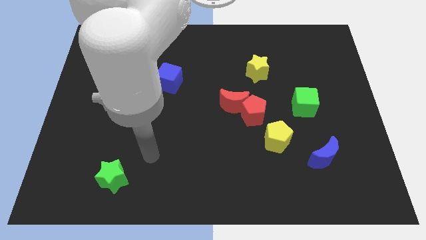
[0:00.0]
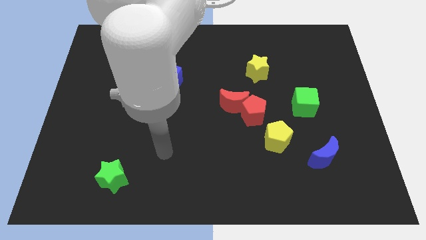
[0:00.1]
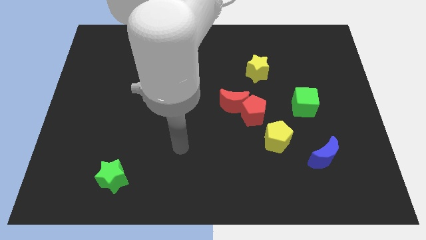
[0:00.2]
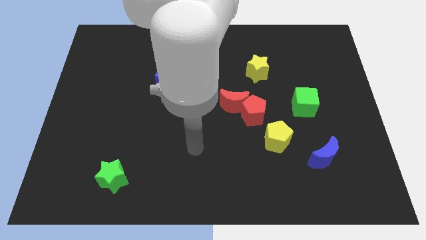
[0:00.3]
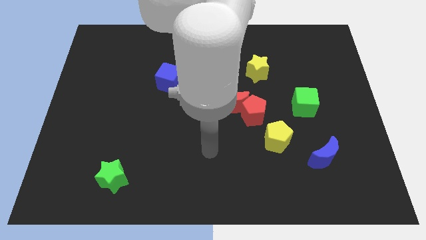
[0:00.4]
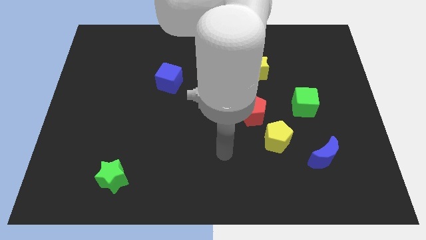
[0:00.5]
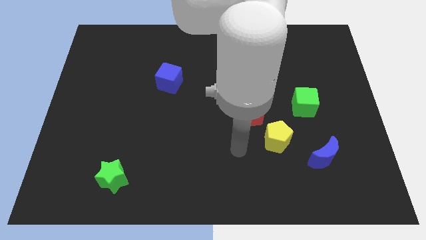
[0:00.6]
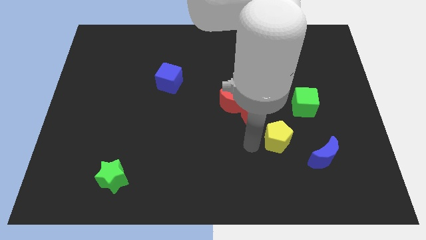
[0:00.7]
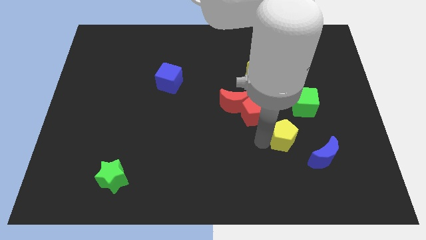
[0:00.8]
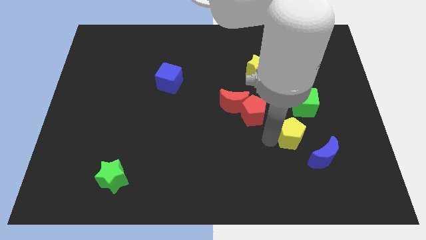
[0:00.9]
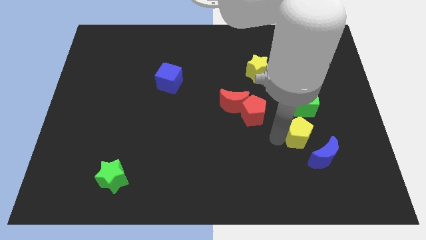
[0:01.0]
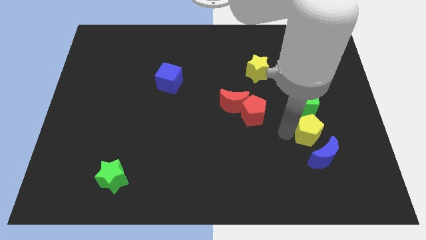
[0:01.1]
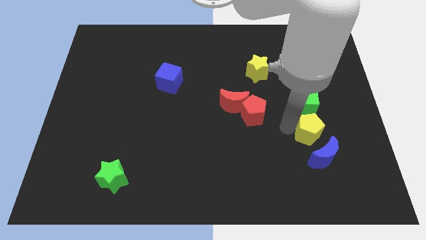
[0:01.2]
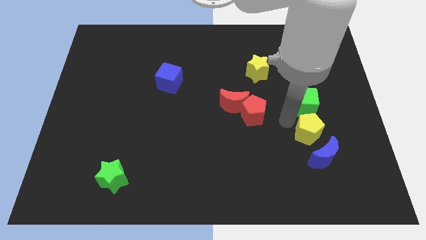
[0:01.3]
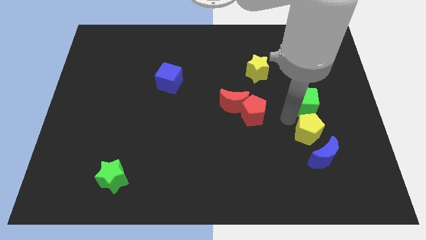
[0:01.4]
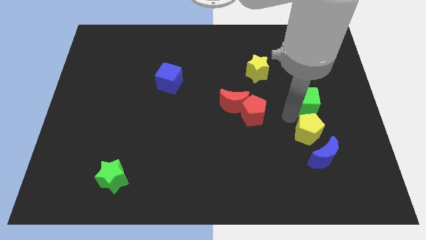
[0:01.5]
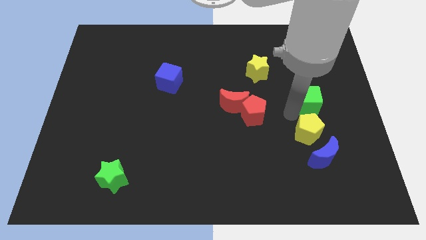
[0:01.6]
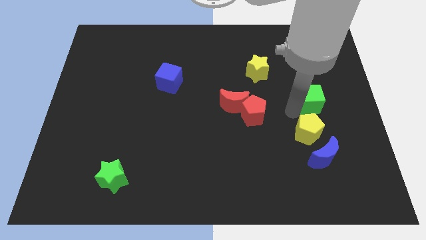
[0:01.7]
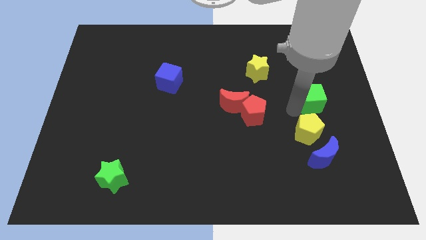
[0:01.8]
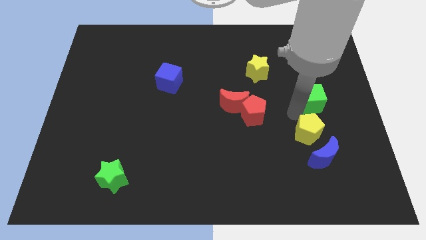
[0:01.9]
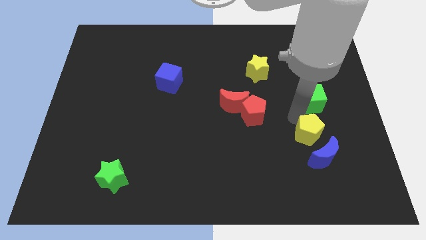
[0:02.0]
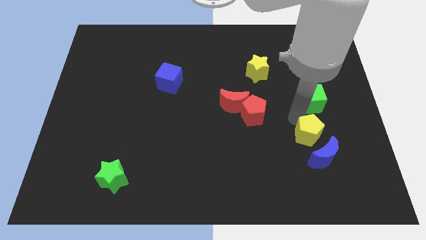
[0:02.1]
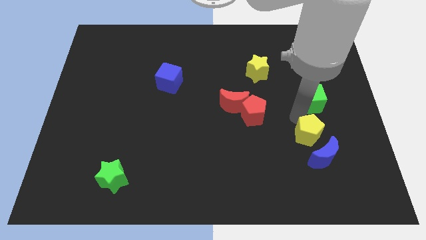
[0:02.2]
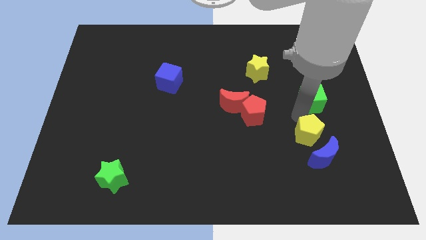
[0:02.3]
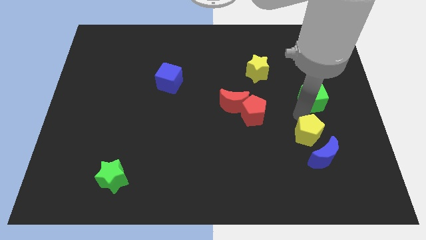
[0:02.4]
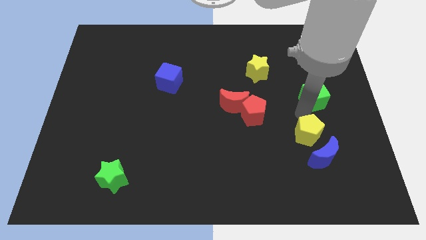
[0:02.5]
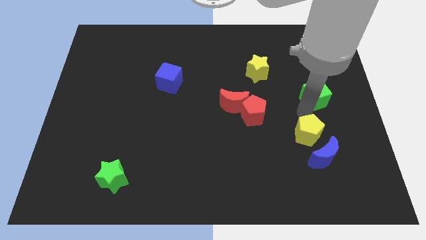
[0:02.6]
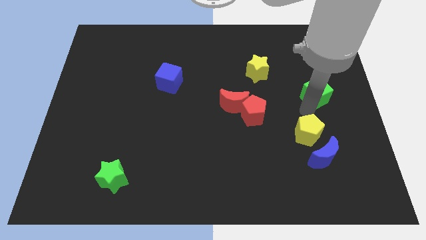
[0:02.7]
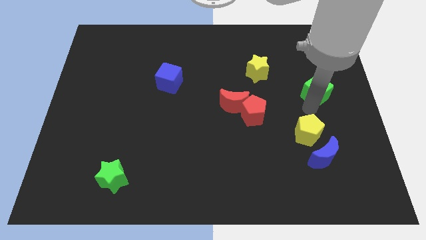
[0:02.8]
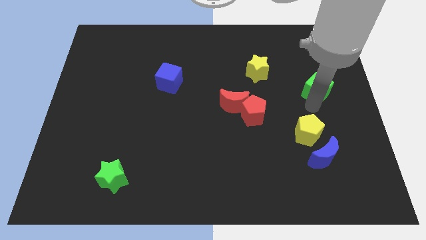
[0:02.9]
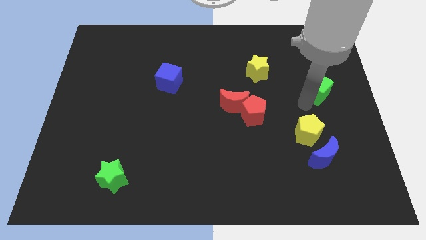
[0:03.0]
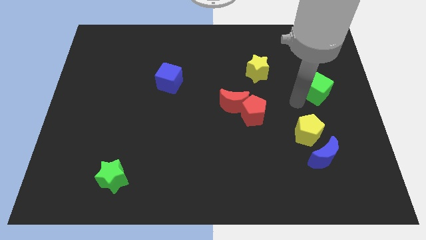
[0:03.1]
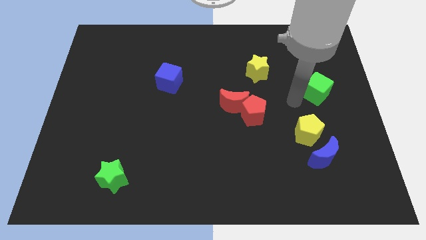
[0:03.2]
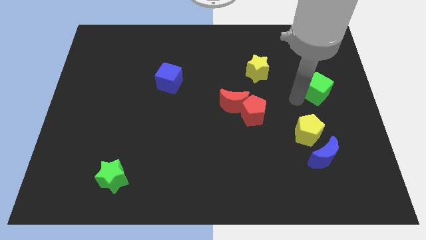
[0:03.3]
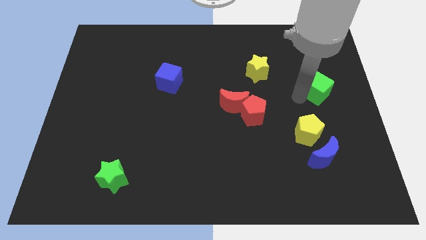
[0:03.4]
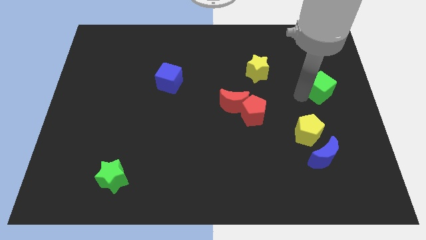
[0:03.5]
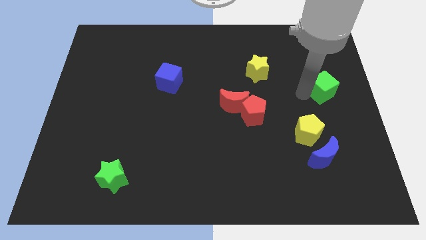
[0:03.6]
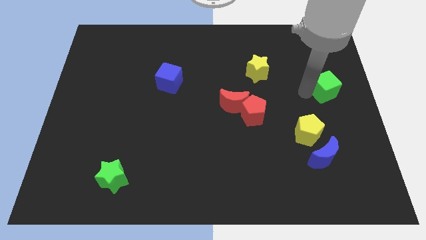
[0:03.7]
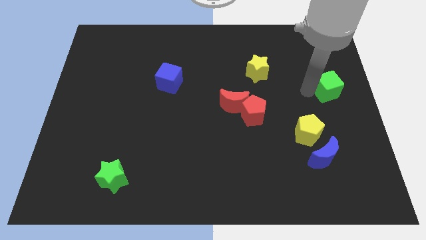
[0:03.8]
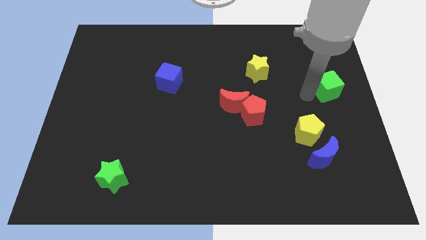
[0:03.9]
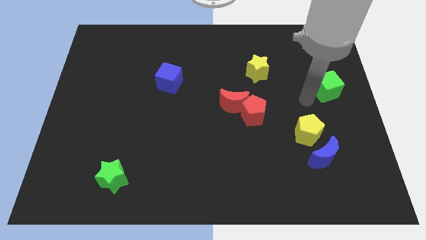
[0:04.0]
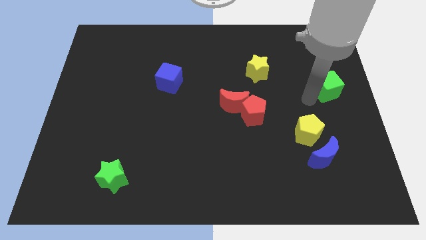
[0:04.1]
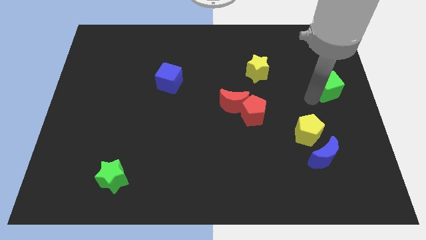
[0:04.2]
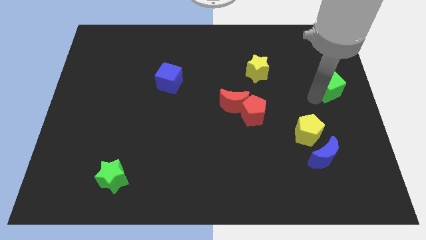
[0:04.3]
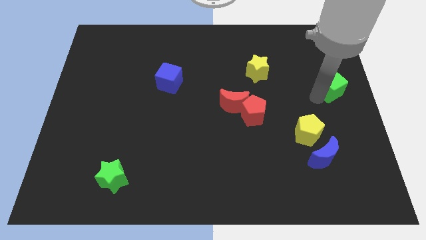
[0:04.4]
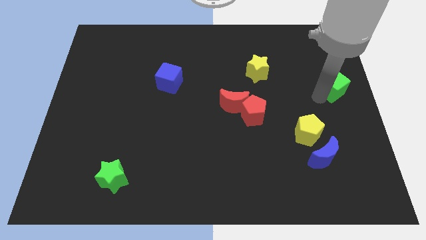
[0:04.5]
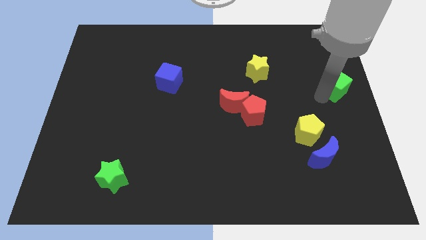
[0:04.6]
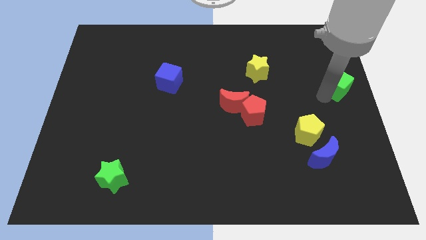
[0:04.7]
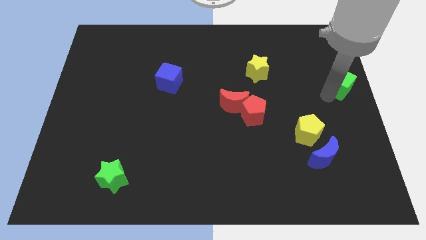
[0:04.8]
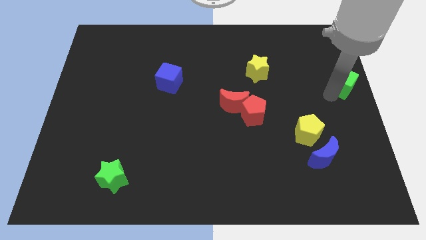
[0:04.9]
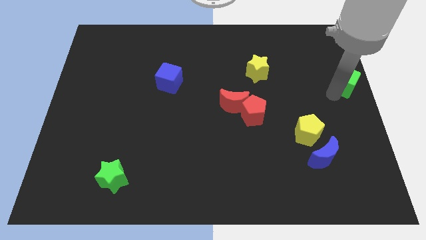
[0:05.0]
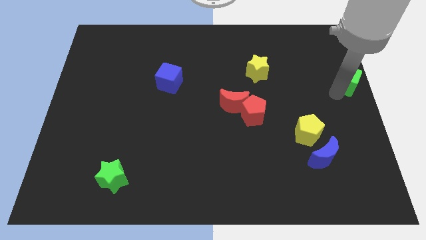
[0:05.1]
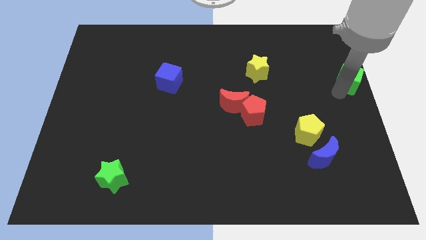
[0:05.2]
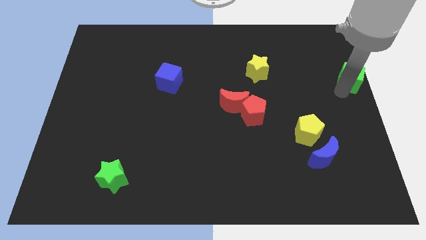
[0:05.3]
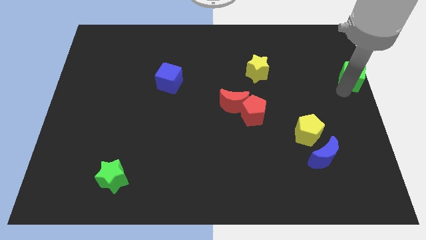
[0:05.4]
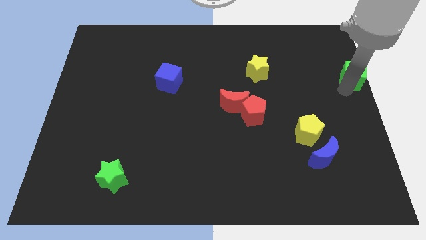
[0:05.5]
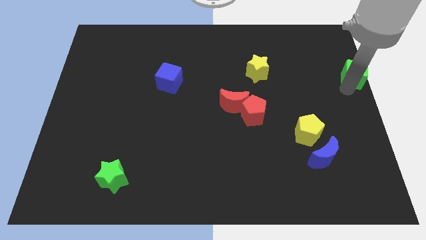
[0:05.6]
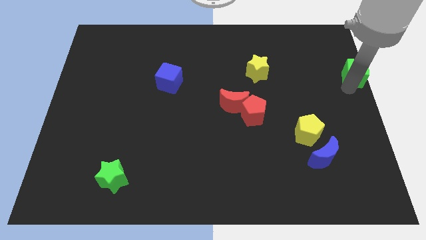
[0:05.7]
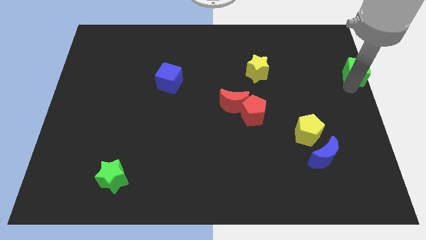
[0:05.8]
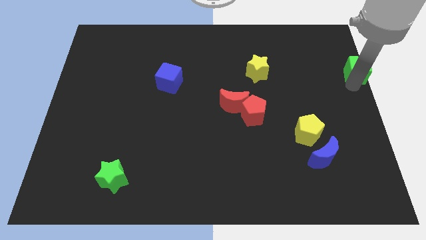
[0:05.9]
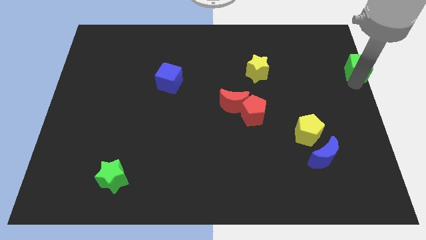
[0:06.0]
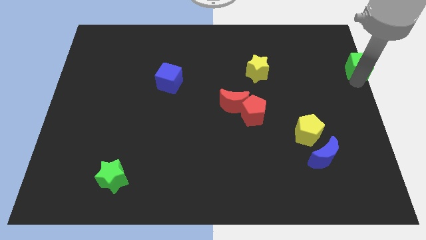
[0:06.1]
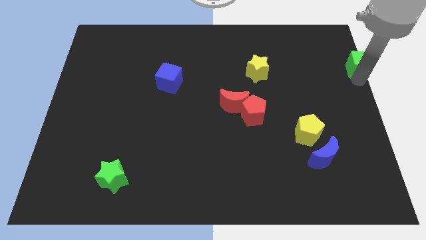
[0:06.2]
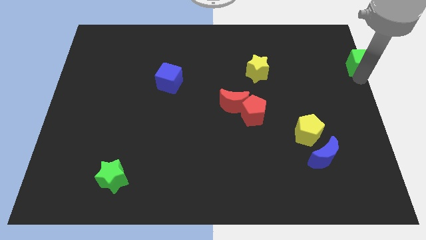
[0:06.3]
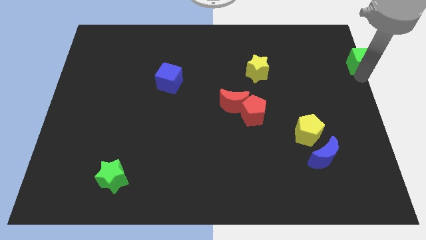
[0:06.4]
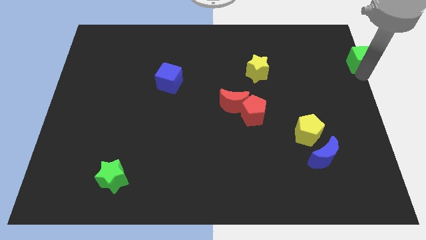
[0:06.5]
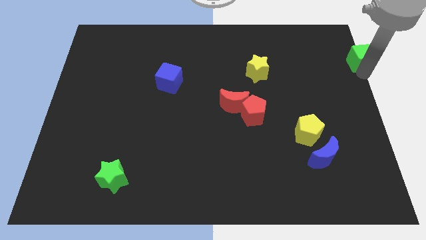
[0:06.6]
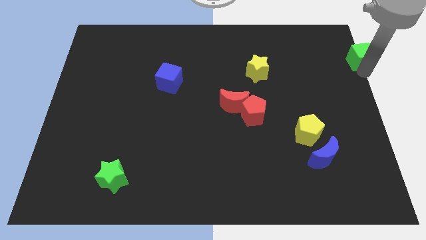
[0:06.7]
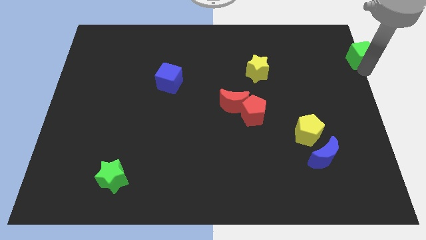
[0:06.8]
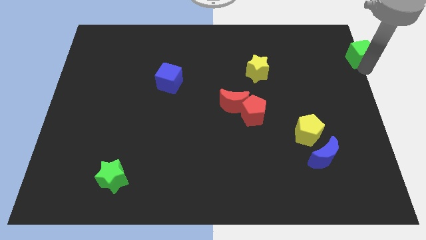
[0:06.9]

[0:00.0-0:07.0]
slide the green cube to the upper right corner
